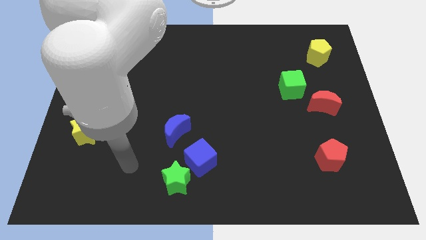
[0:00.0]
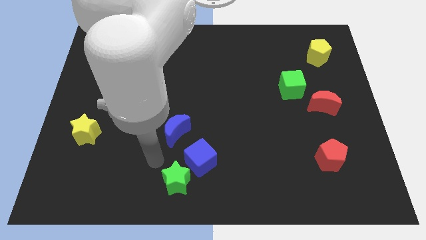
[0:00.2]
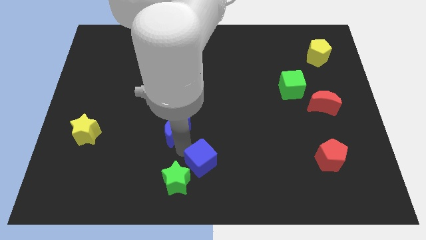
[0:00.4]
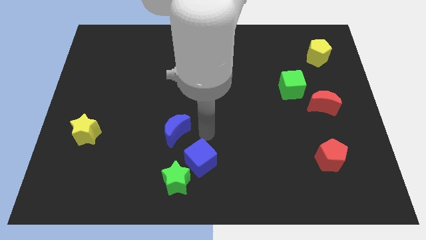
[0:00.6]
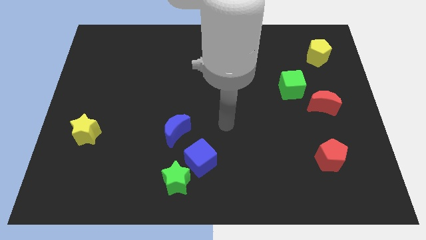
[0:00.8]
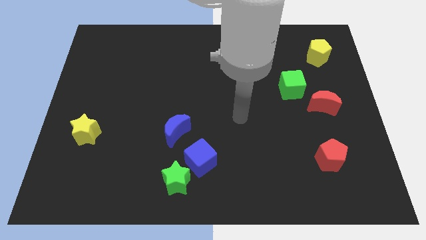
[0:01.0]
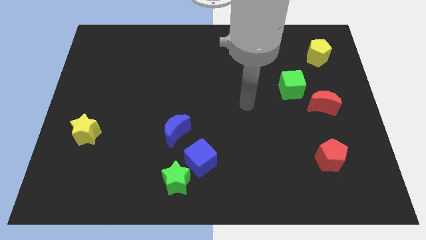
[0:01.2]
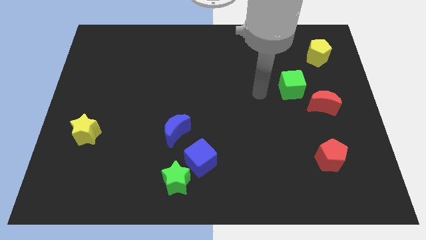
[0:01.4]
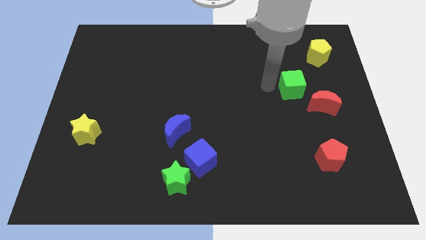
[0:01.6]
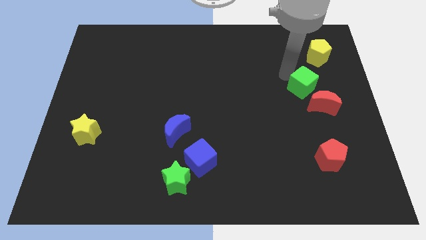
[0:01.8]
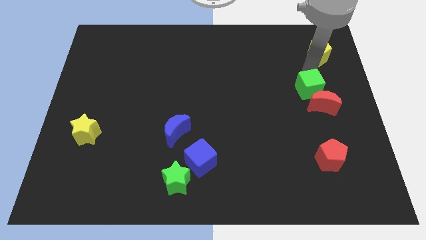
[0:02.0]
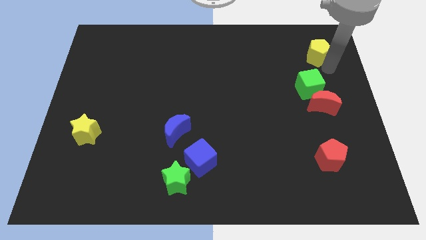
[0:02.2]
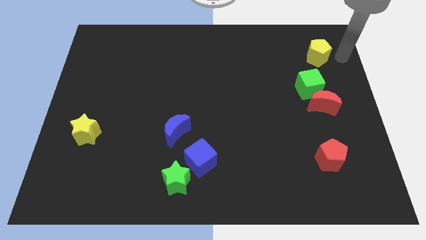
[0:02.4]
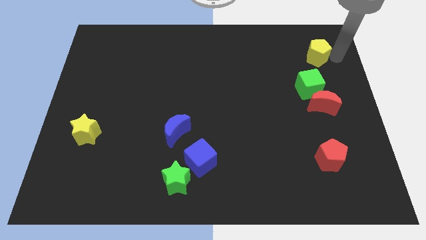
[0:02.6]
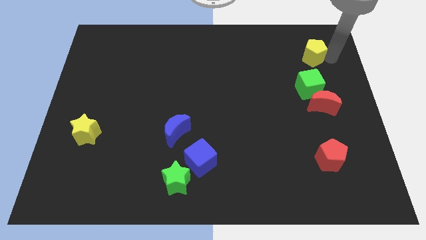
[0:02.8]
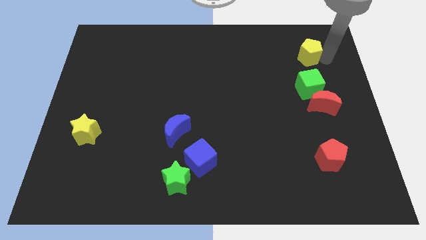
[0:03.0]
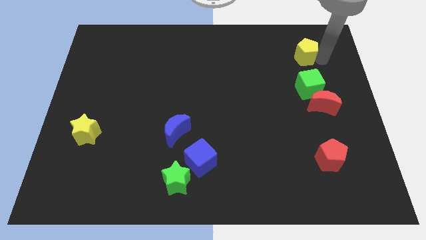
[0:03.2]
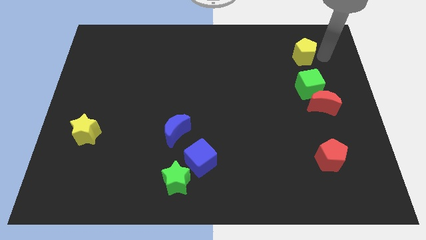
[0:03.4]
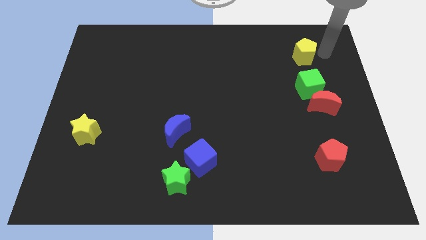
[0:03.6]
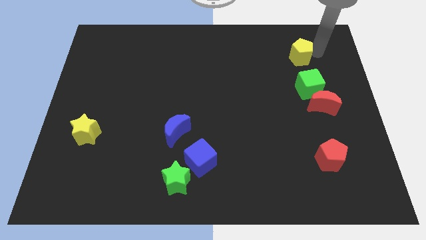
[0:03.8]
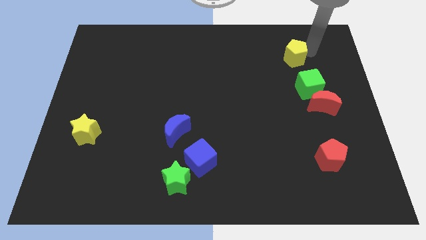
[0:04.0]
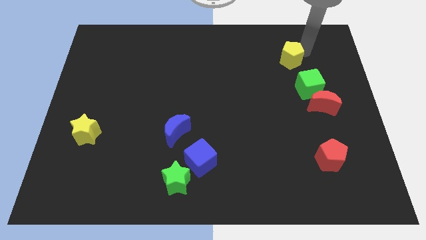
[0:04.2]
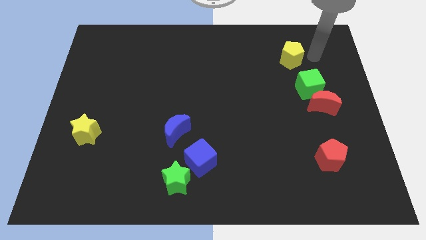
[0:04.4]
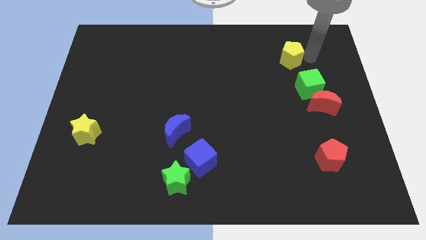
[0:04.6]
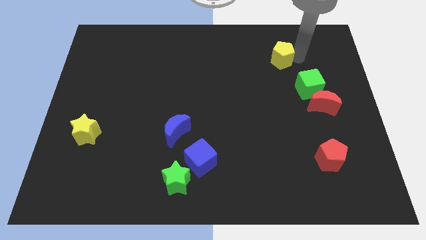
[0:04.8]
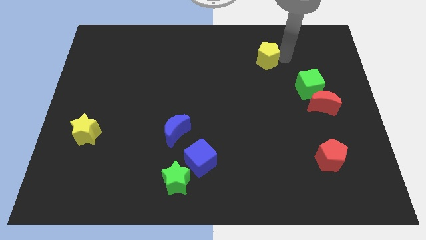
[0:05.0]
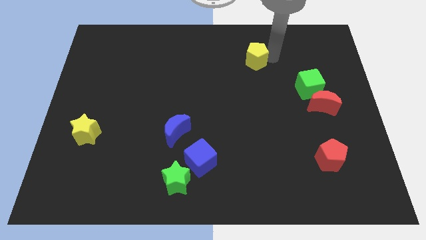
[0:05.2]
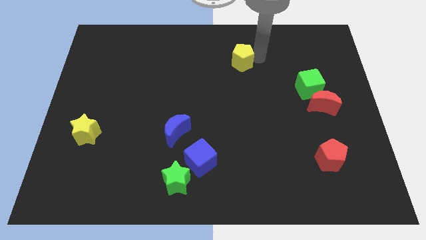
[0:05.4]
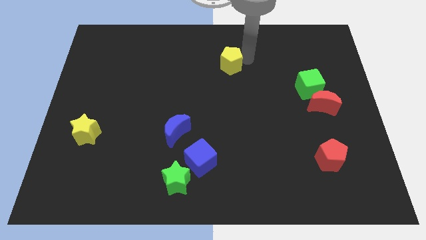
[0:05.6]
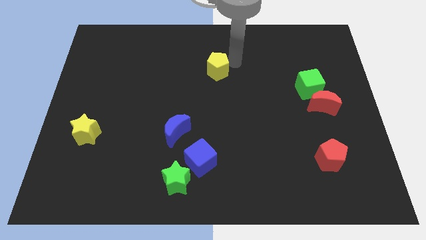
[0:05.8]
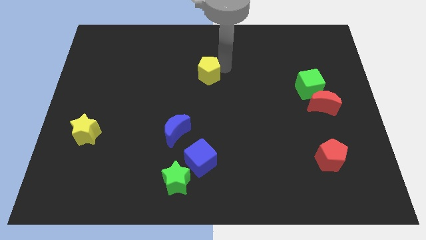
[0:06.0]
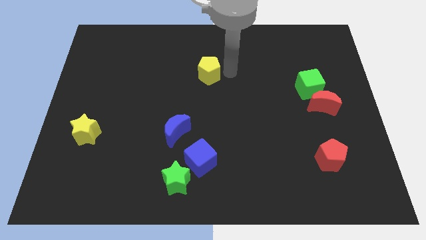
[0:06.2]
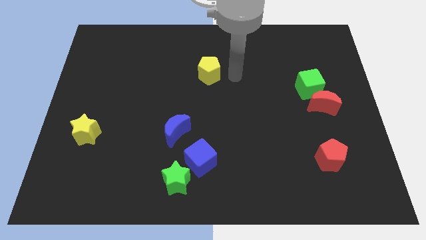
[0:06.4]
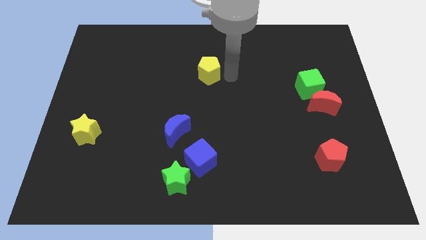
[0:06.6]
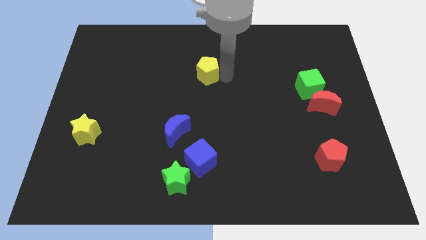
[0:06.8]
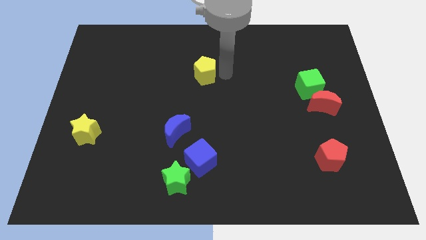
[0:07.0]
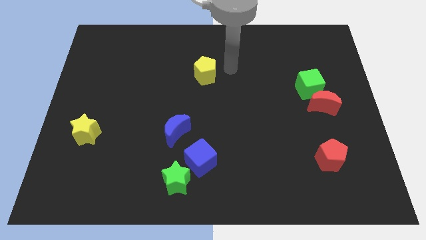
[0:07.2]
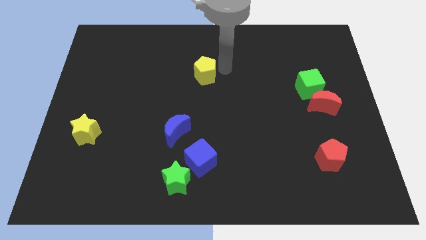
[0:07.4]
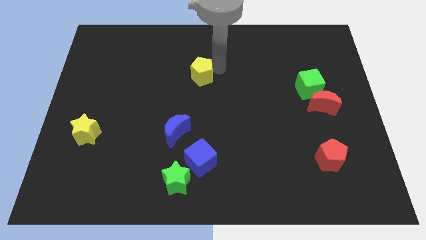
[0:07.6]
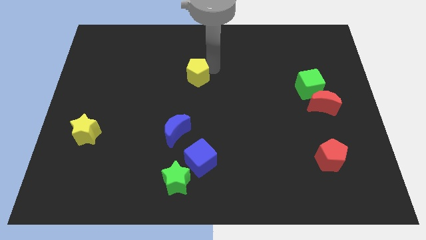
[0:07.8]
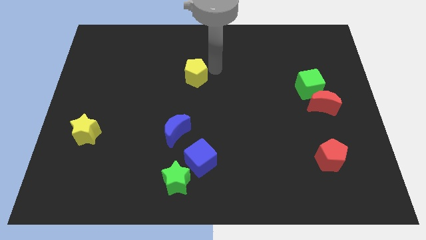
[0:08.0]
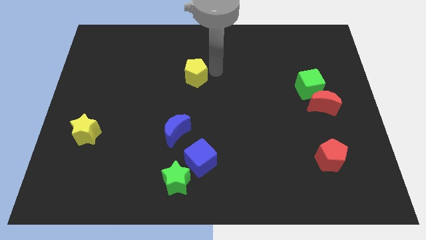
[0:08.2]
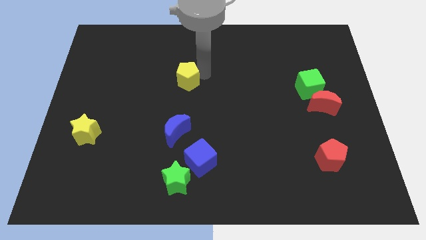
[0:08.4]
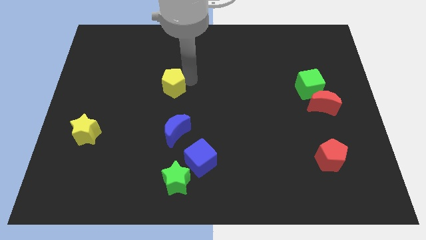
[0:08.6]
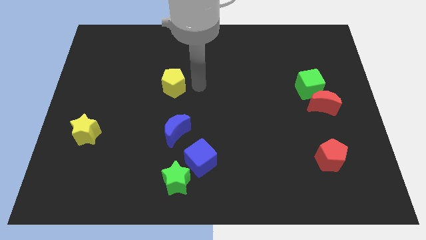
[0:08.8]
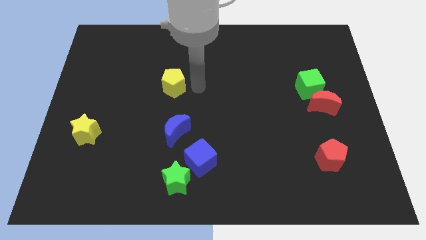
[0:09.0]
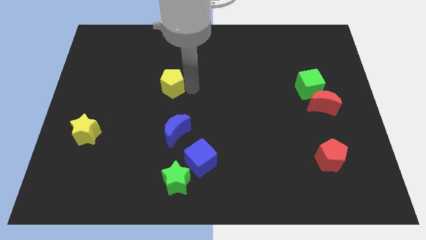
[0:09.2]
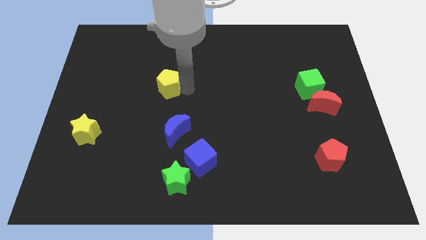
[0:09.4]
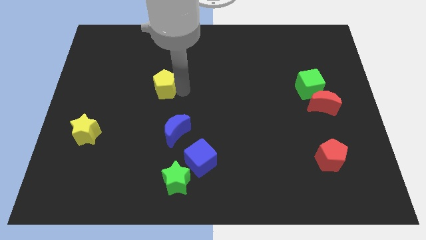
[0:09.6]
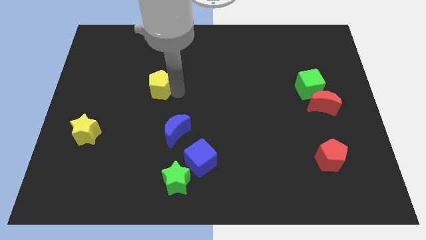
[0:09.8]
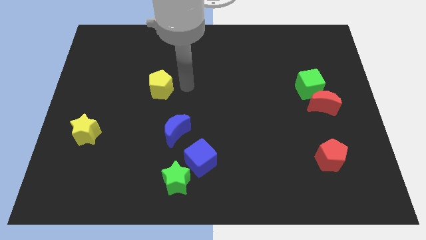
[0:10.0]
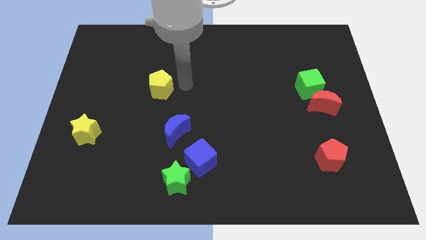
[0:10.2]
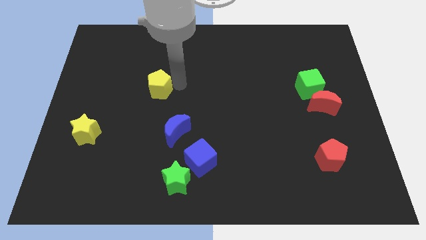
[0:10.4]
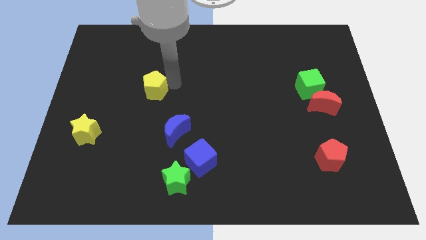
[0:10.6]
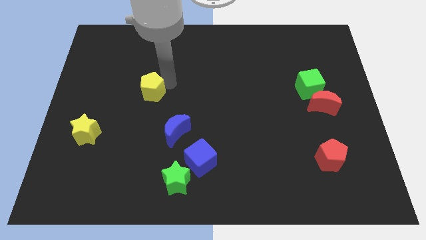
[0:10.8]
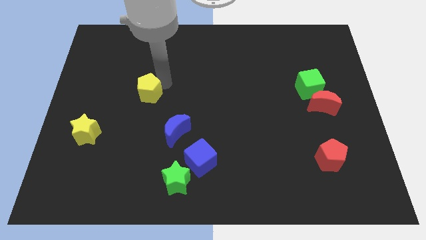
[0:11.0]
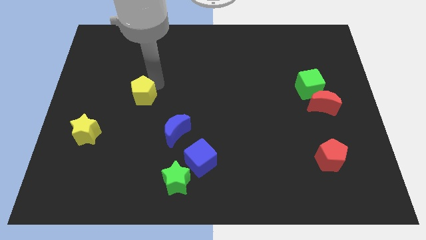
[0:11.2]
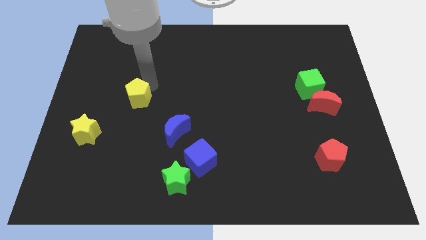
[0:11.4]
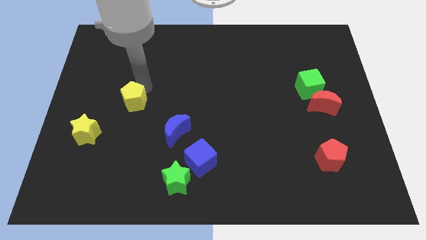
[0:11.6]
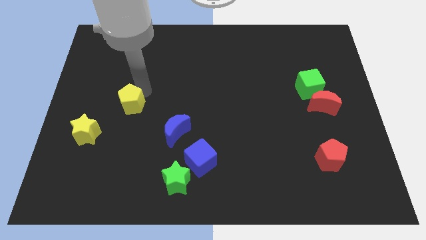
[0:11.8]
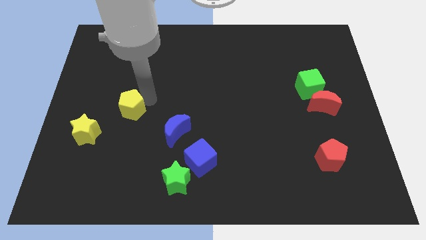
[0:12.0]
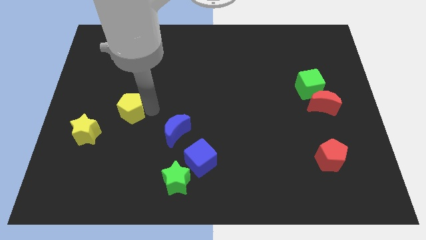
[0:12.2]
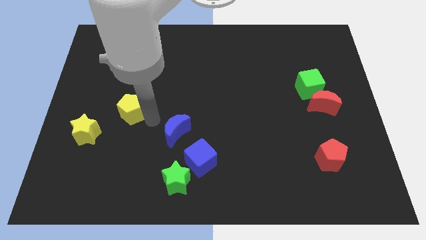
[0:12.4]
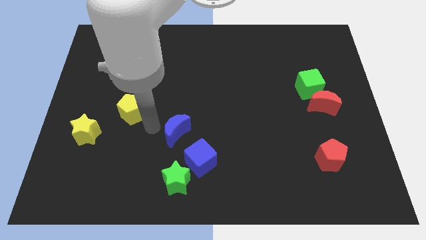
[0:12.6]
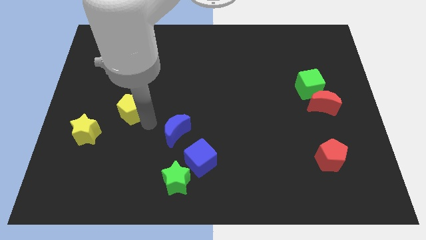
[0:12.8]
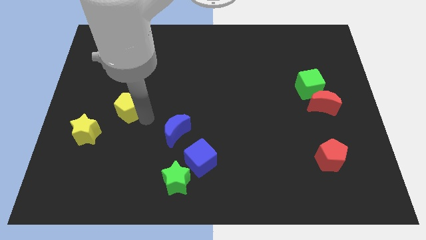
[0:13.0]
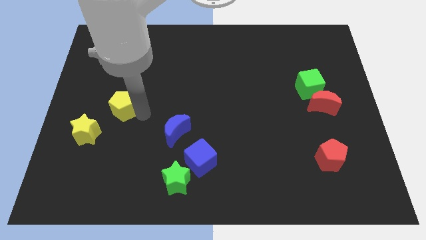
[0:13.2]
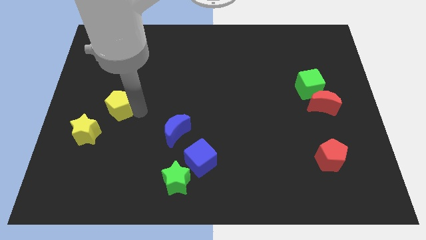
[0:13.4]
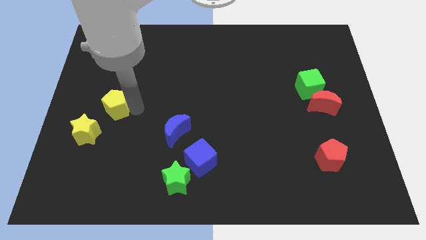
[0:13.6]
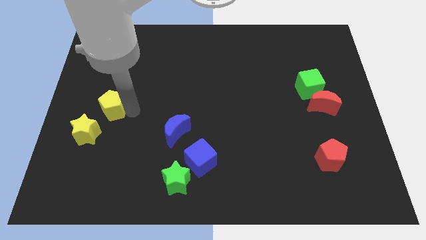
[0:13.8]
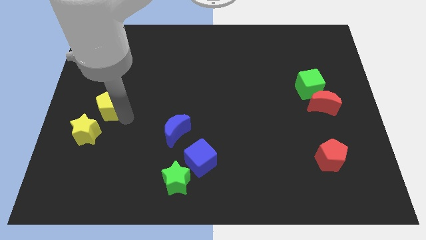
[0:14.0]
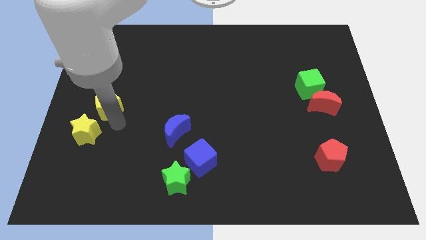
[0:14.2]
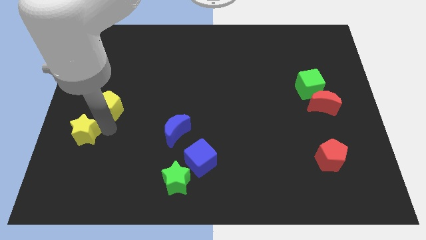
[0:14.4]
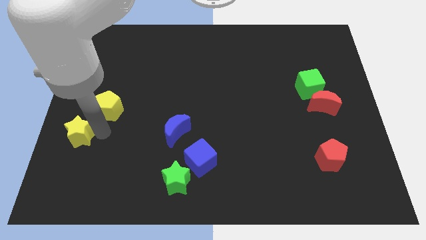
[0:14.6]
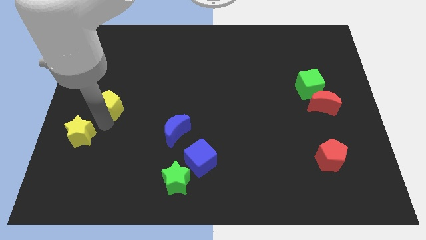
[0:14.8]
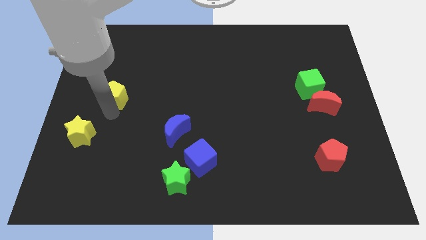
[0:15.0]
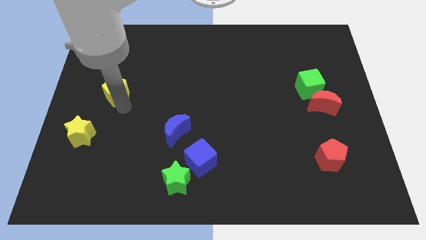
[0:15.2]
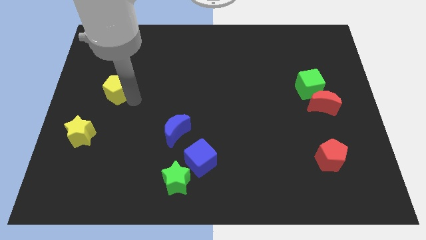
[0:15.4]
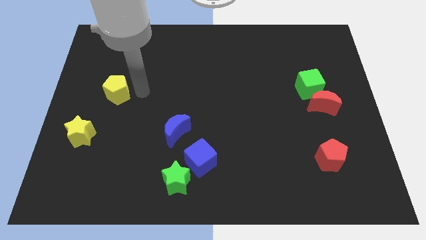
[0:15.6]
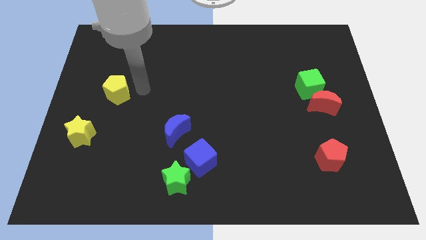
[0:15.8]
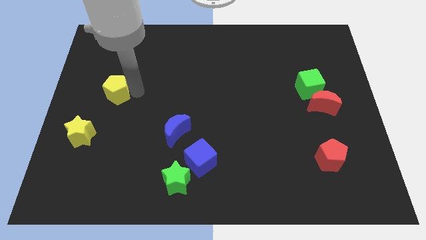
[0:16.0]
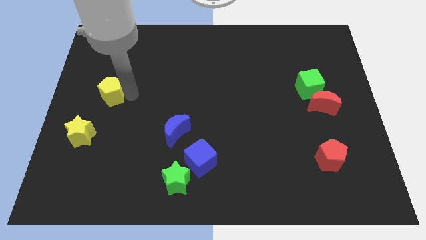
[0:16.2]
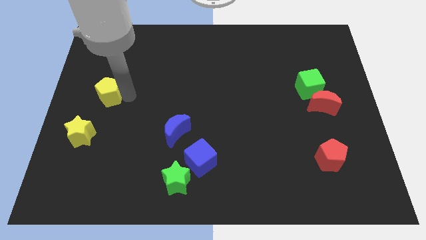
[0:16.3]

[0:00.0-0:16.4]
put the yellow pentagon to the center left
